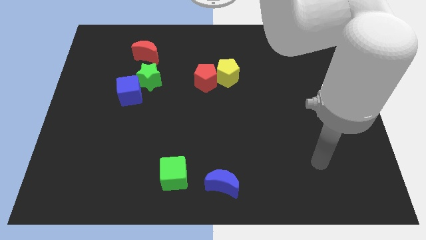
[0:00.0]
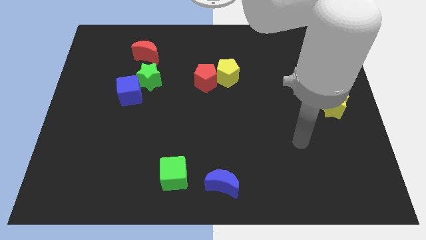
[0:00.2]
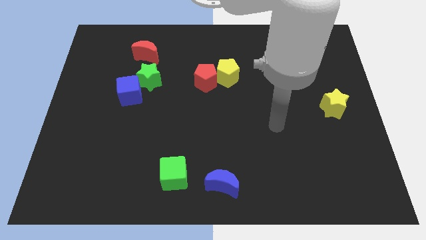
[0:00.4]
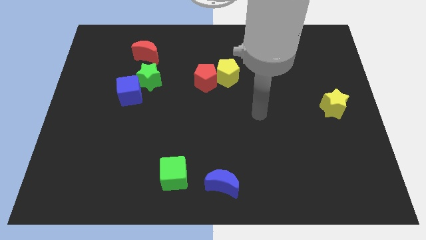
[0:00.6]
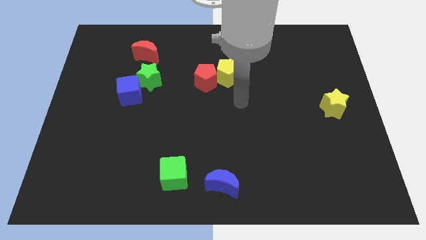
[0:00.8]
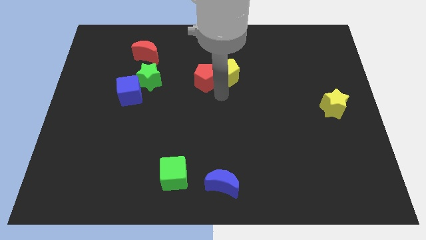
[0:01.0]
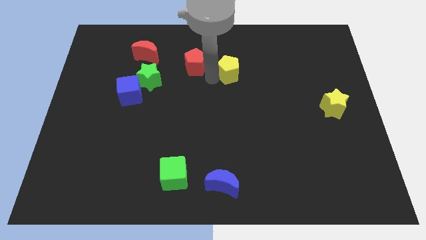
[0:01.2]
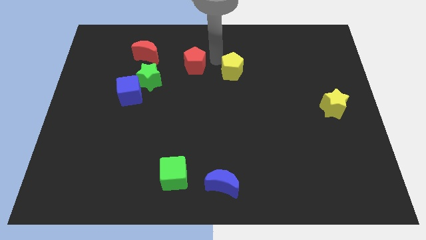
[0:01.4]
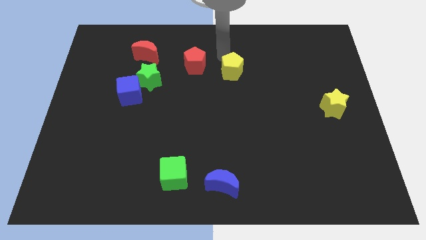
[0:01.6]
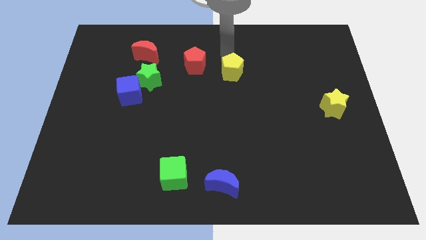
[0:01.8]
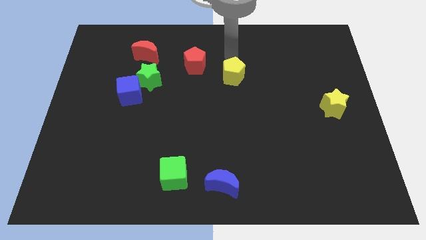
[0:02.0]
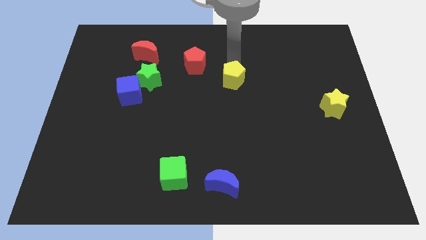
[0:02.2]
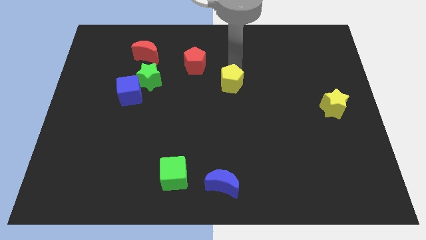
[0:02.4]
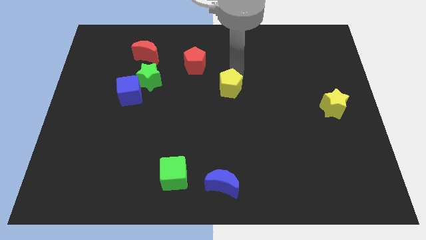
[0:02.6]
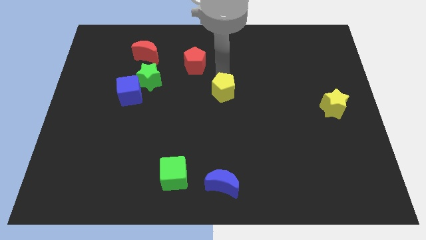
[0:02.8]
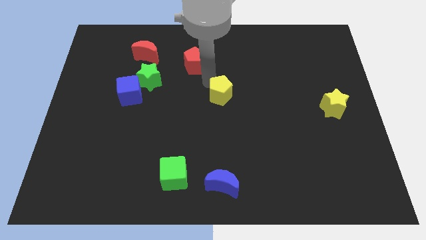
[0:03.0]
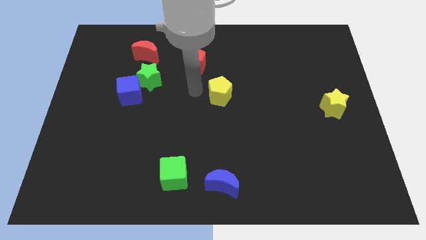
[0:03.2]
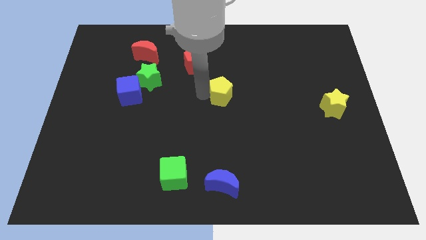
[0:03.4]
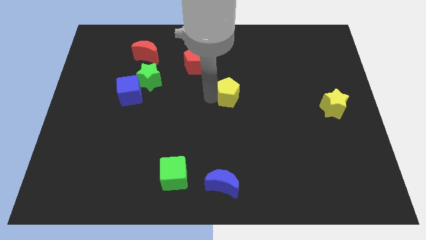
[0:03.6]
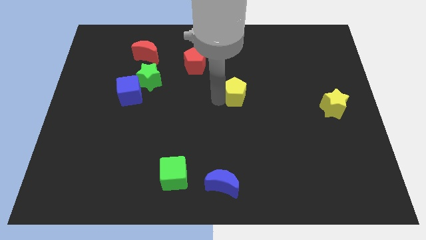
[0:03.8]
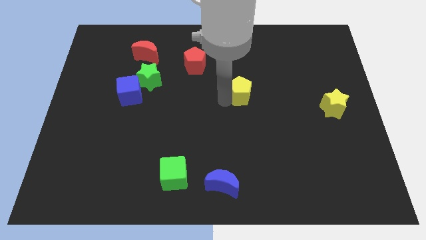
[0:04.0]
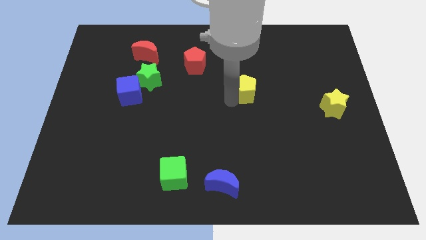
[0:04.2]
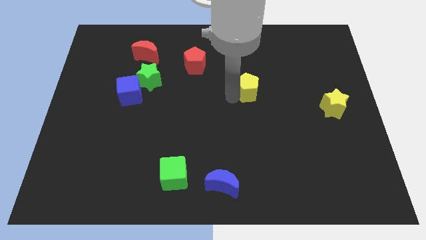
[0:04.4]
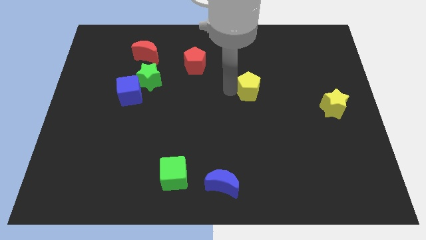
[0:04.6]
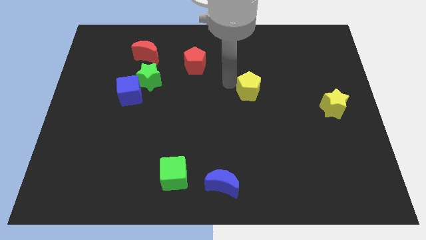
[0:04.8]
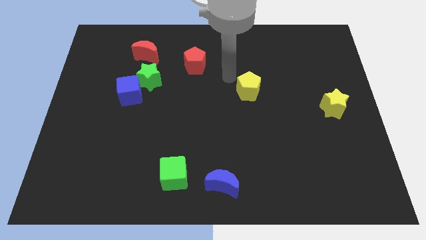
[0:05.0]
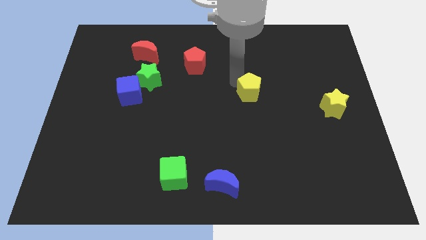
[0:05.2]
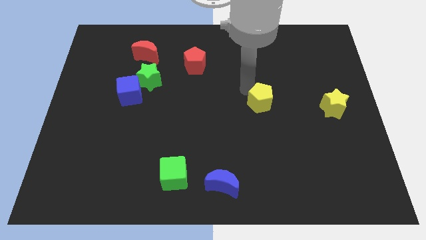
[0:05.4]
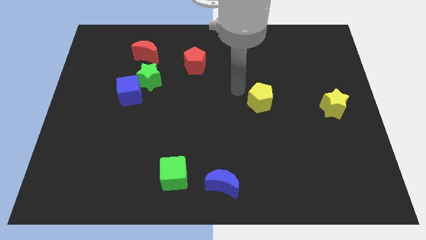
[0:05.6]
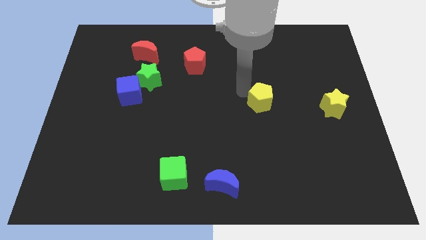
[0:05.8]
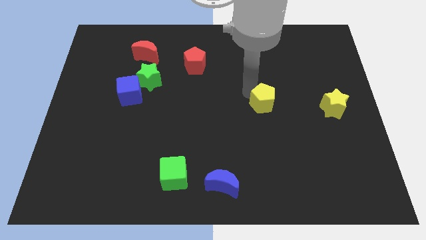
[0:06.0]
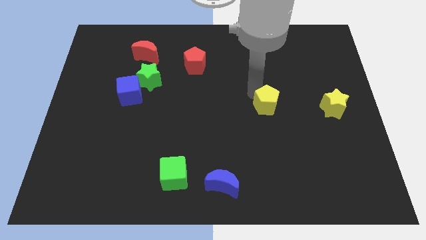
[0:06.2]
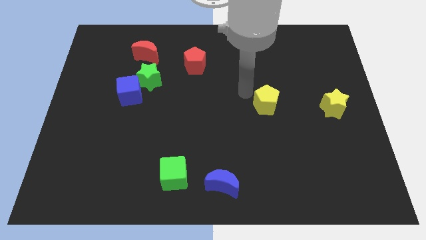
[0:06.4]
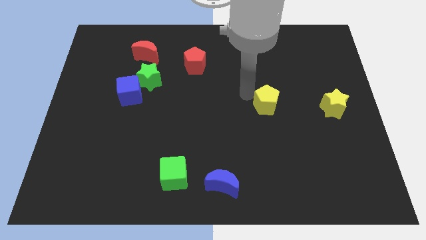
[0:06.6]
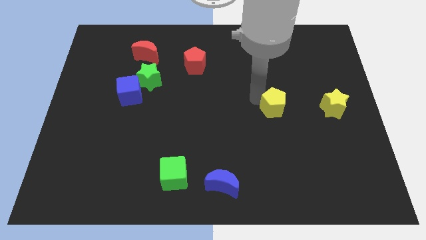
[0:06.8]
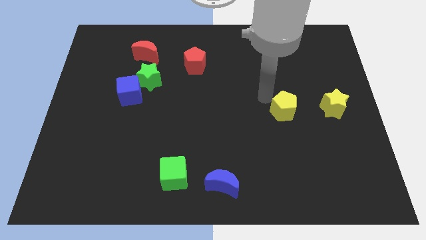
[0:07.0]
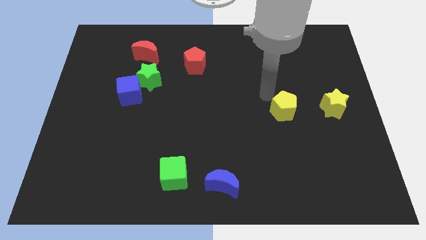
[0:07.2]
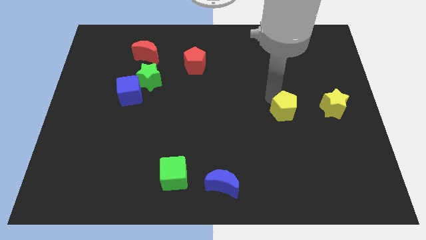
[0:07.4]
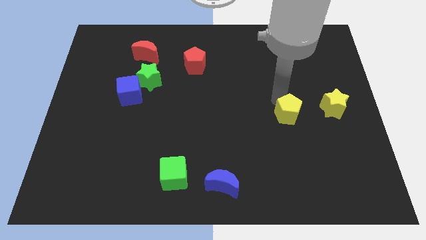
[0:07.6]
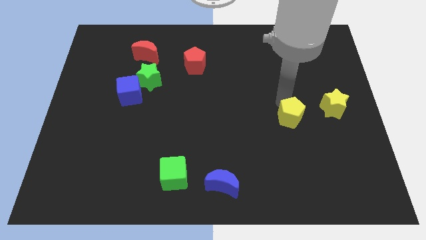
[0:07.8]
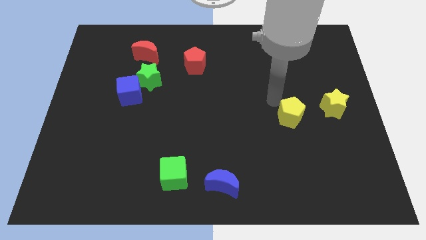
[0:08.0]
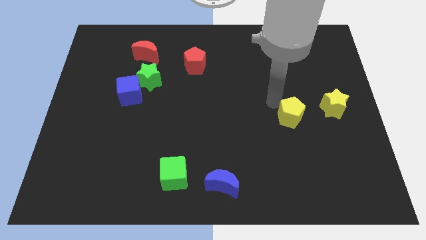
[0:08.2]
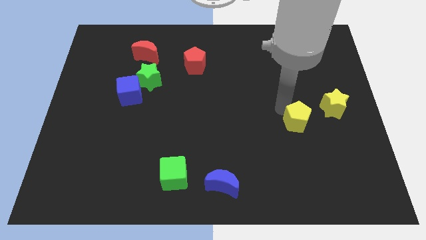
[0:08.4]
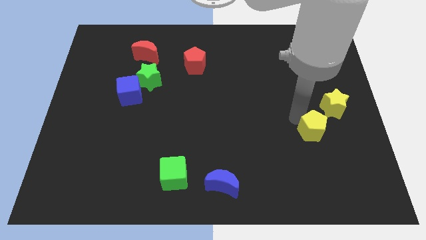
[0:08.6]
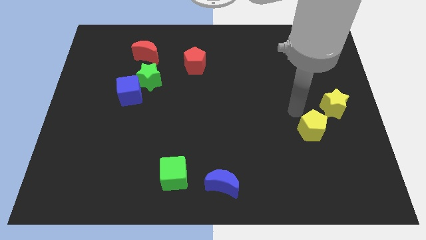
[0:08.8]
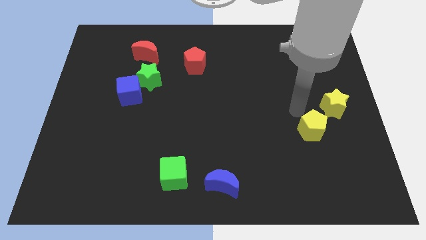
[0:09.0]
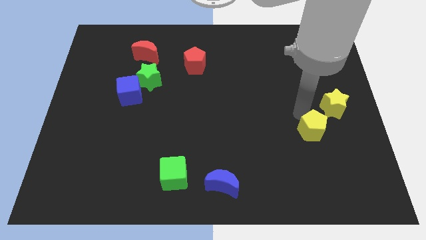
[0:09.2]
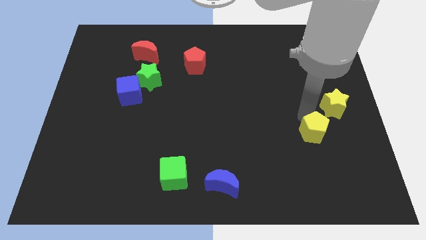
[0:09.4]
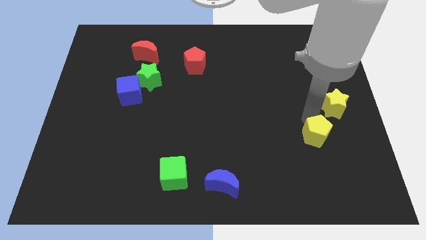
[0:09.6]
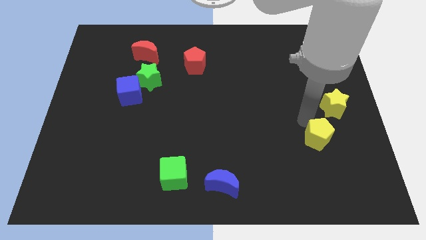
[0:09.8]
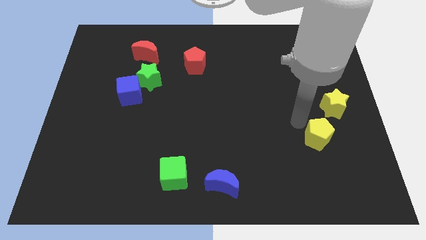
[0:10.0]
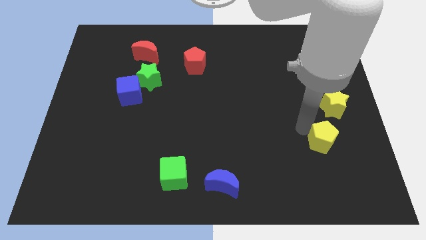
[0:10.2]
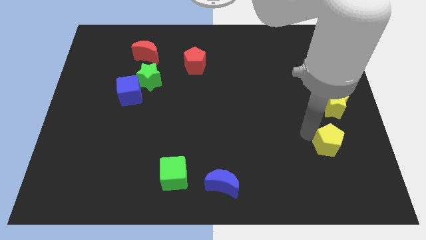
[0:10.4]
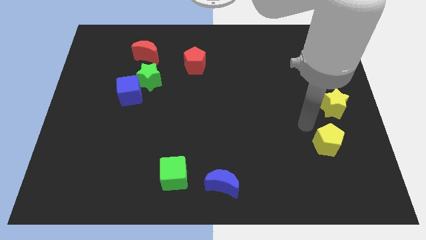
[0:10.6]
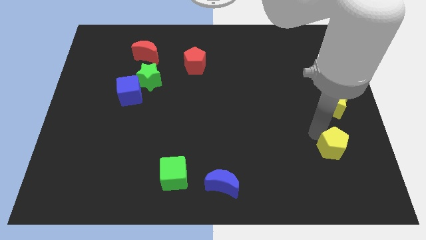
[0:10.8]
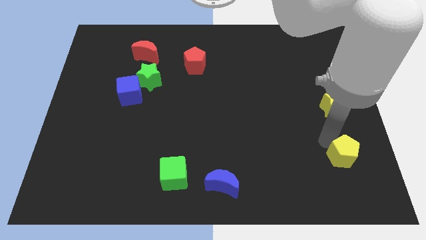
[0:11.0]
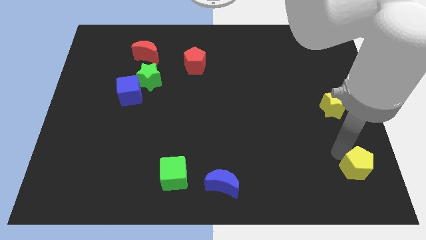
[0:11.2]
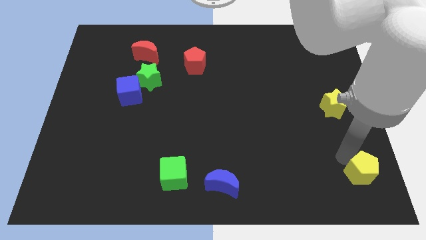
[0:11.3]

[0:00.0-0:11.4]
move the yellow pentagon to the lower right corner

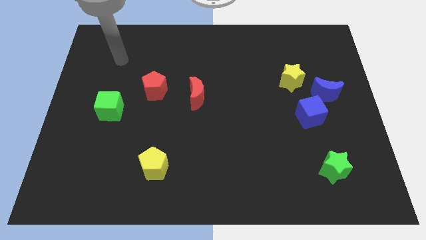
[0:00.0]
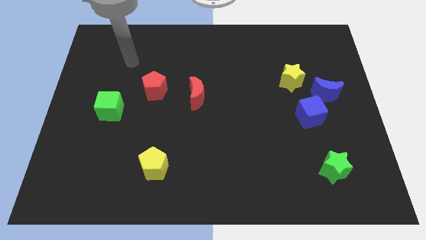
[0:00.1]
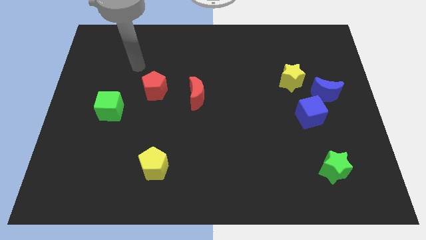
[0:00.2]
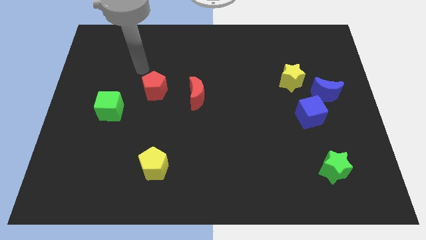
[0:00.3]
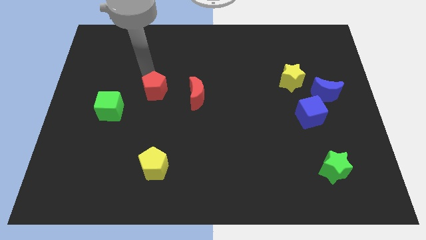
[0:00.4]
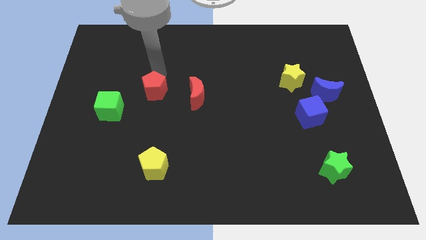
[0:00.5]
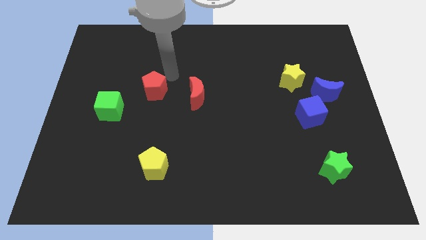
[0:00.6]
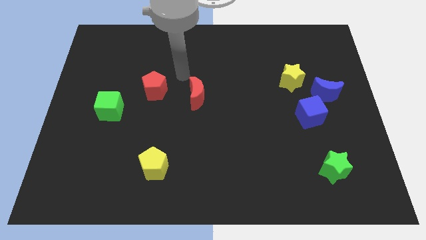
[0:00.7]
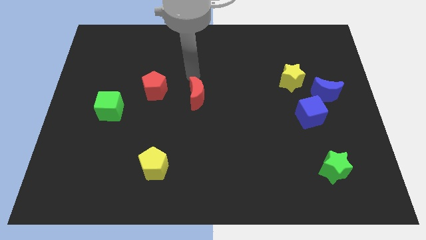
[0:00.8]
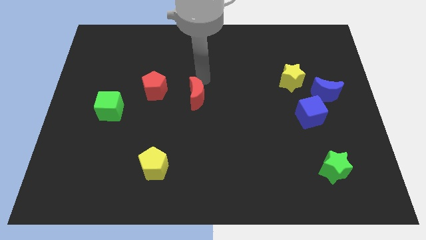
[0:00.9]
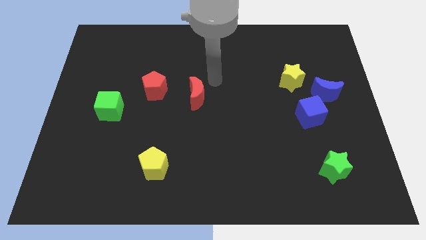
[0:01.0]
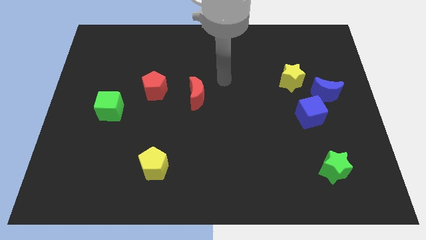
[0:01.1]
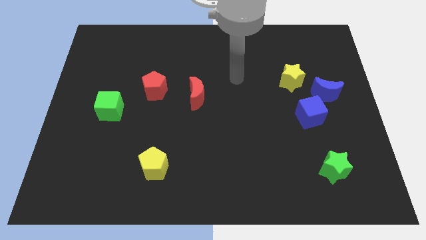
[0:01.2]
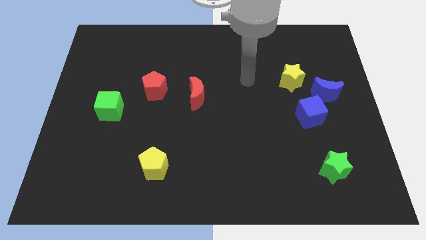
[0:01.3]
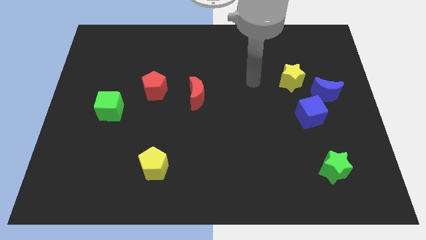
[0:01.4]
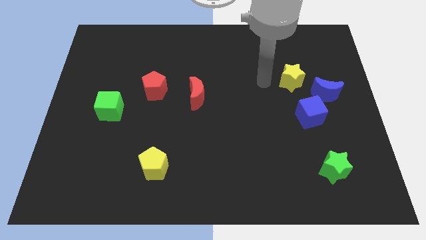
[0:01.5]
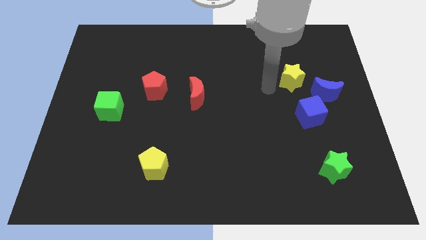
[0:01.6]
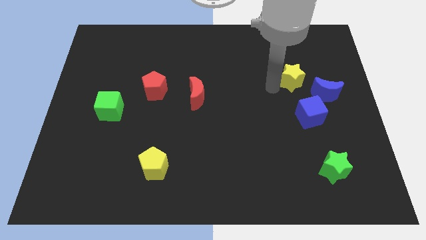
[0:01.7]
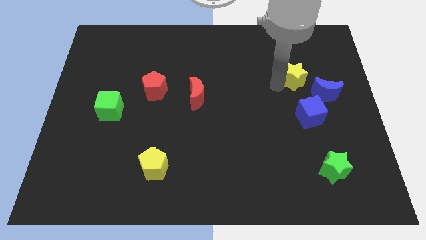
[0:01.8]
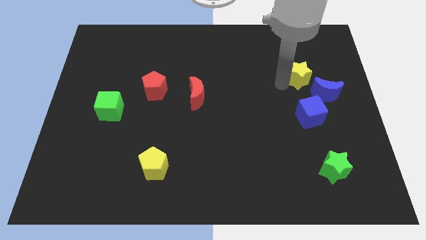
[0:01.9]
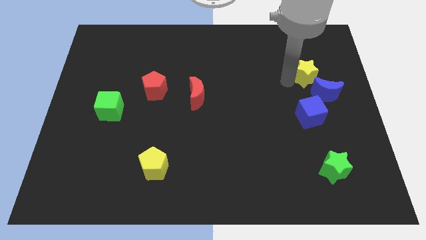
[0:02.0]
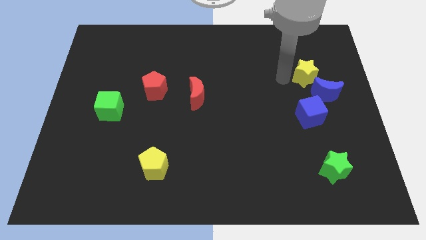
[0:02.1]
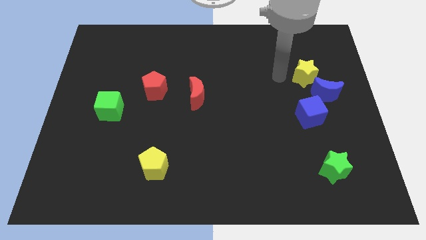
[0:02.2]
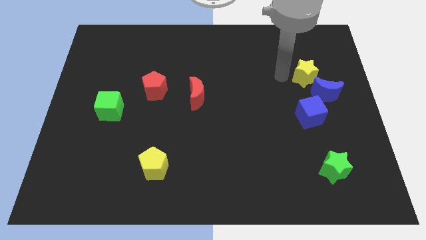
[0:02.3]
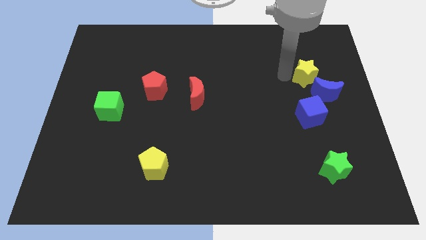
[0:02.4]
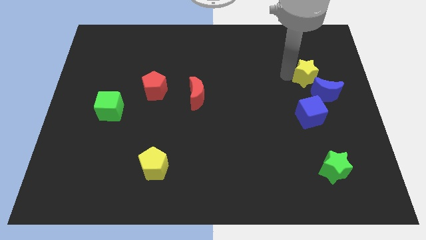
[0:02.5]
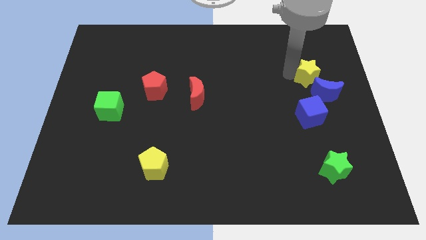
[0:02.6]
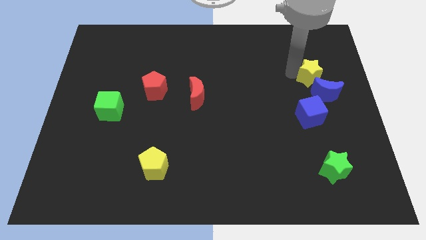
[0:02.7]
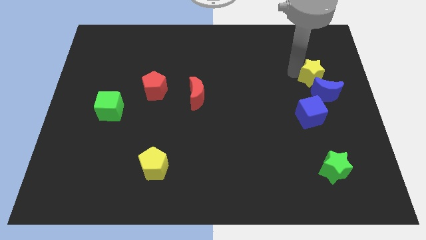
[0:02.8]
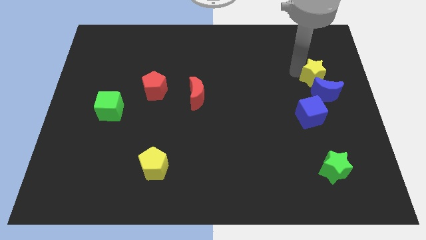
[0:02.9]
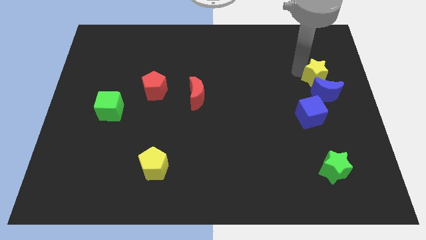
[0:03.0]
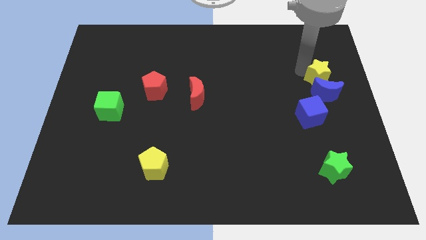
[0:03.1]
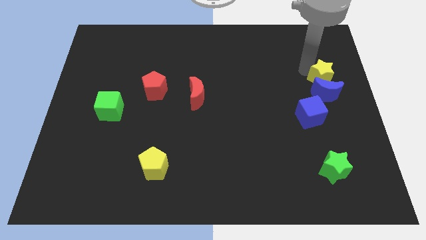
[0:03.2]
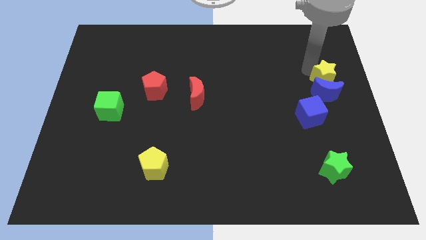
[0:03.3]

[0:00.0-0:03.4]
slide the yellow star to the right side of the board
